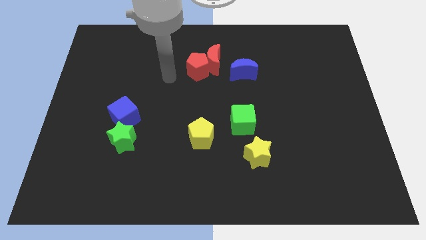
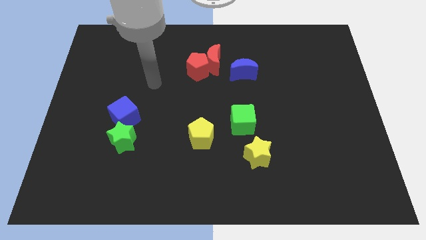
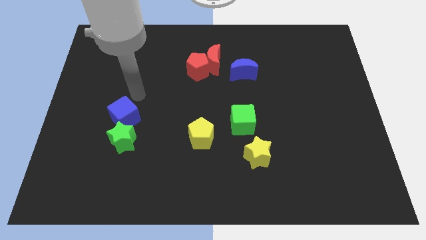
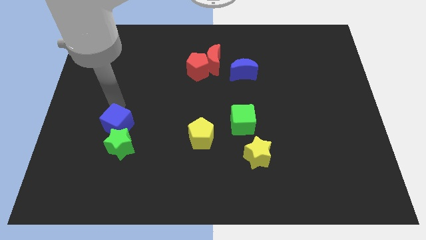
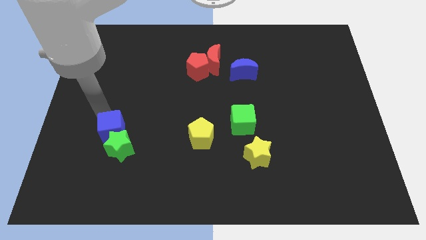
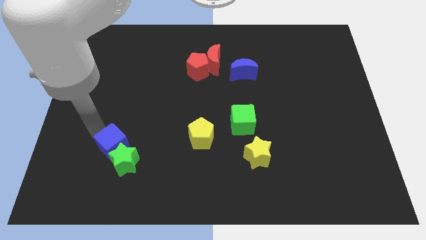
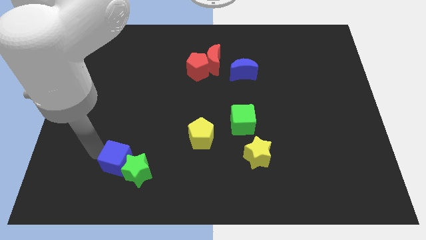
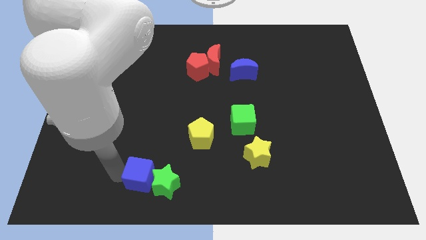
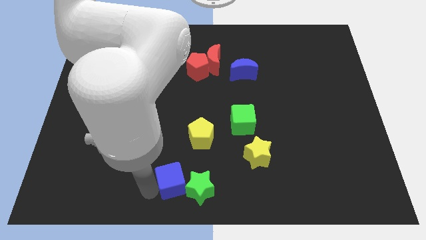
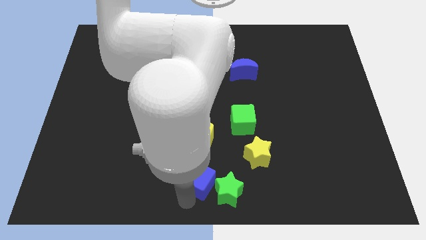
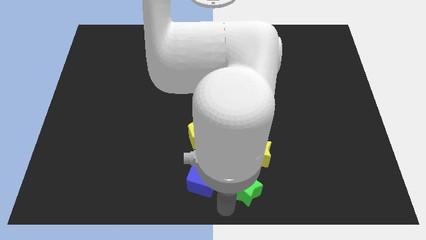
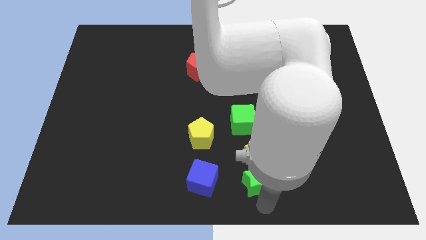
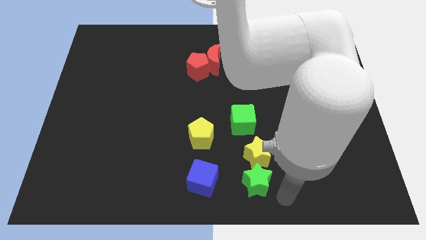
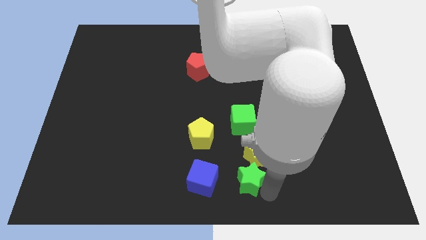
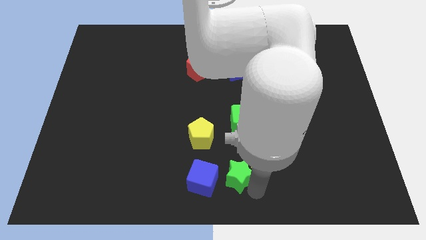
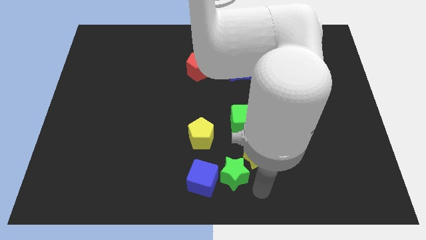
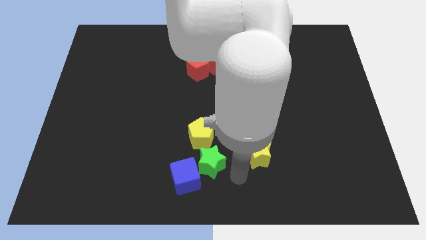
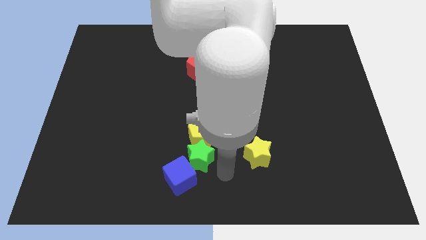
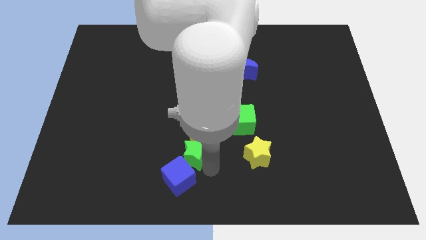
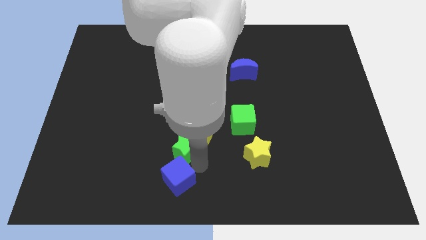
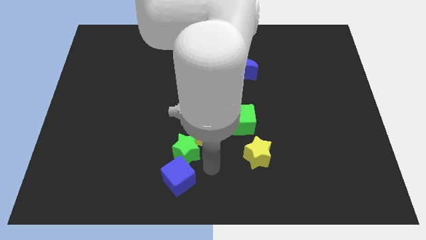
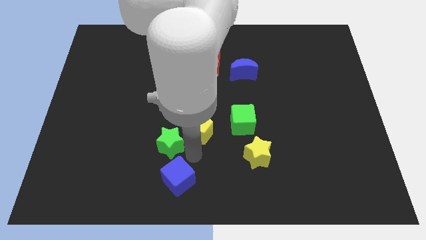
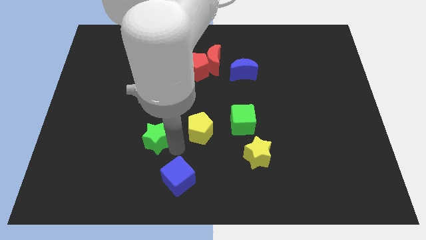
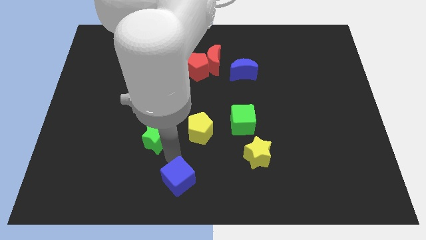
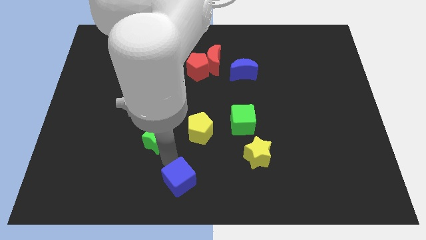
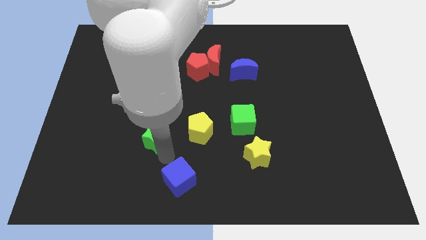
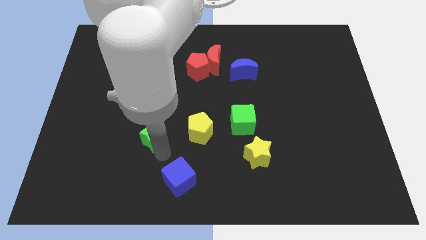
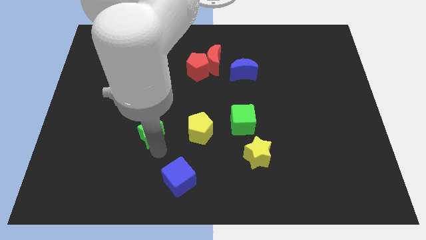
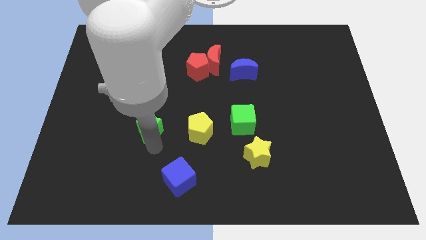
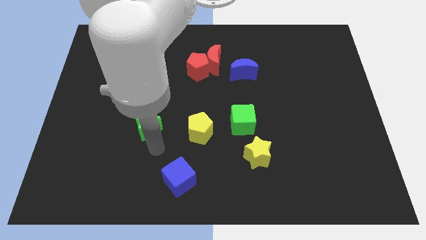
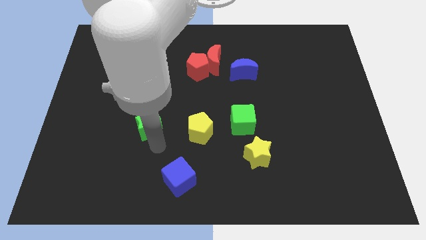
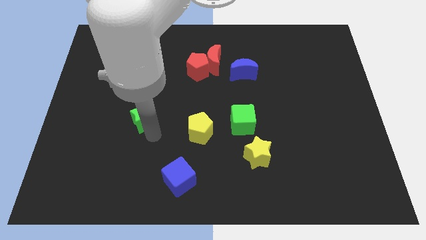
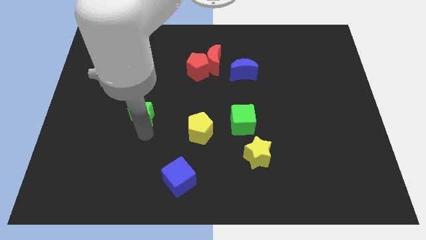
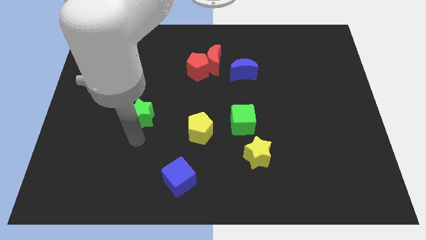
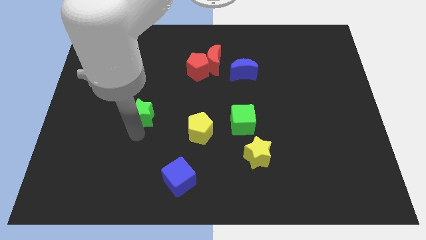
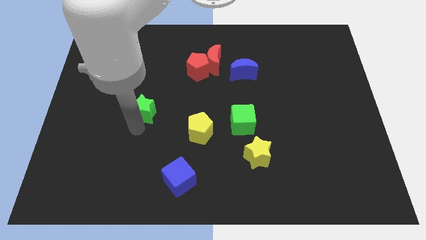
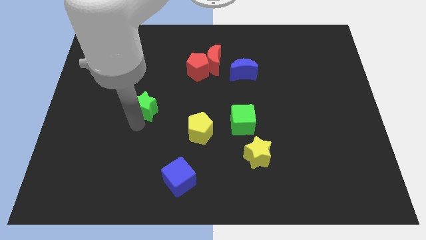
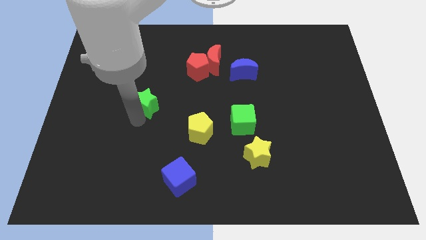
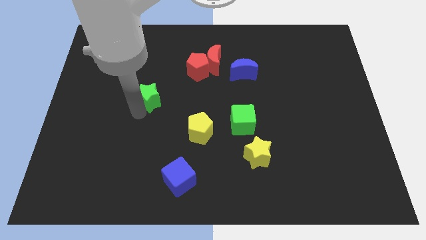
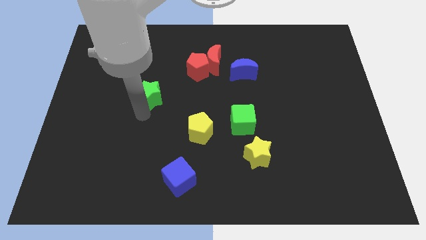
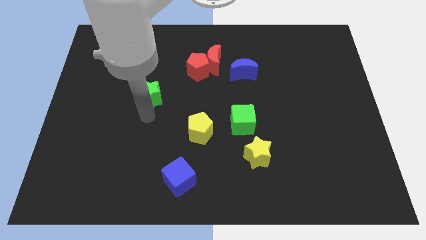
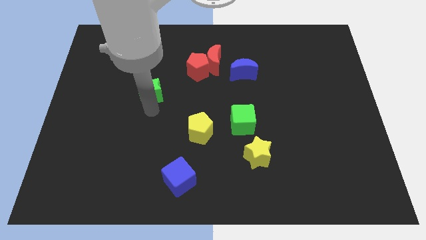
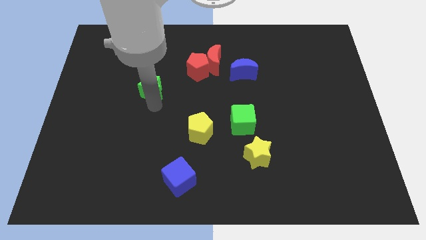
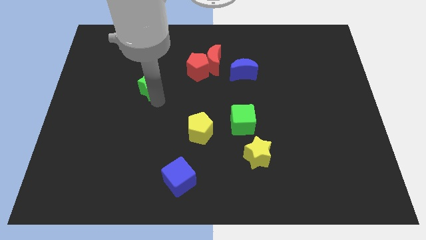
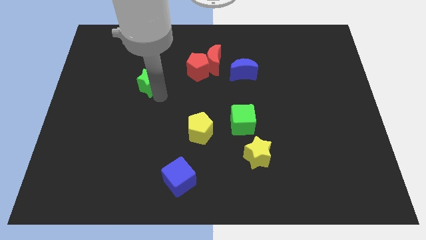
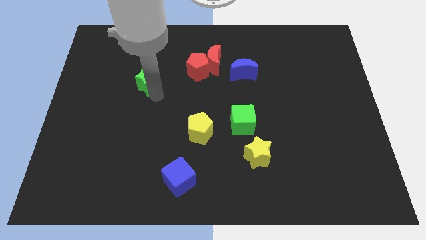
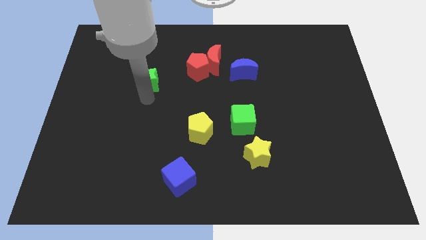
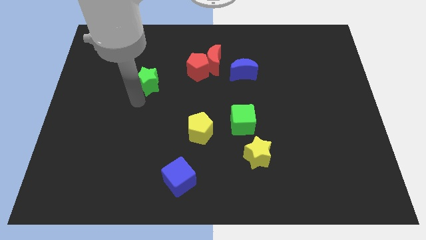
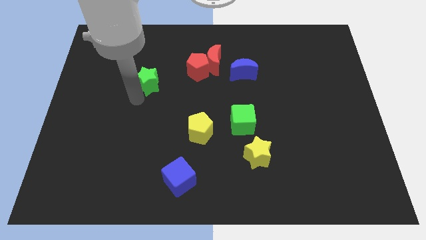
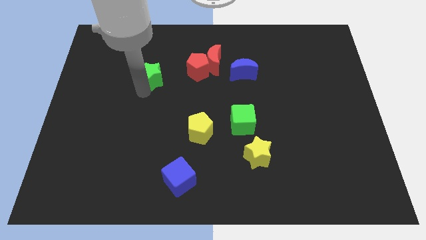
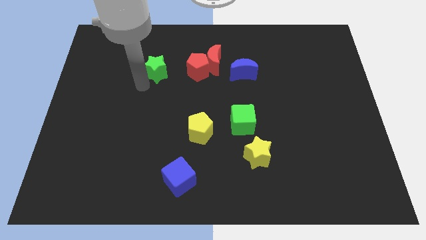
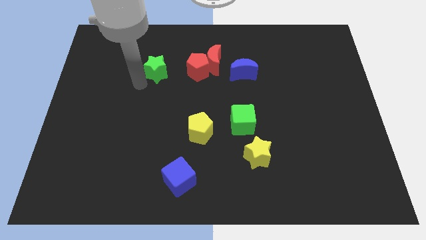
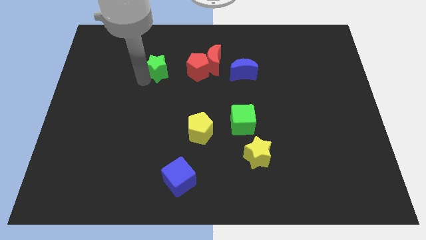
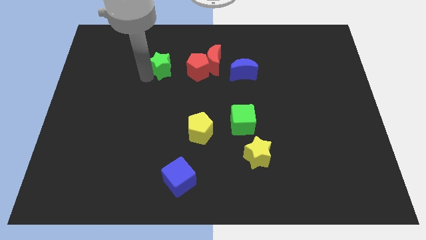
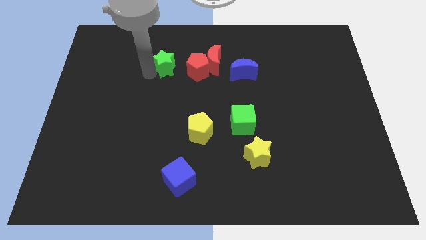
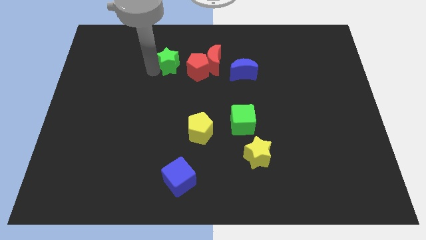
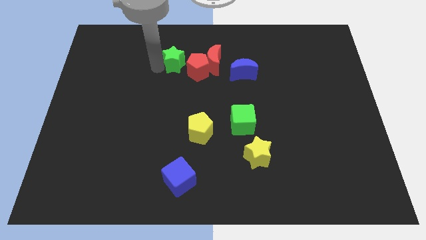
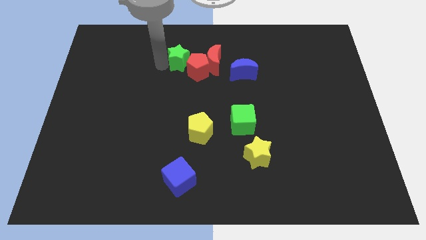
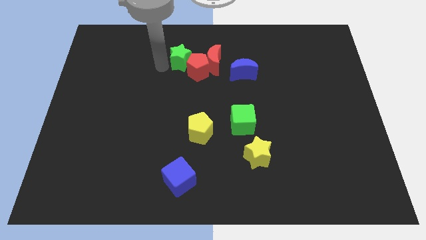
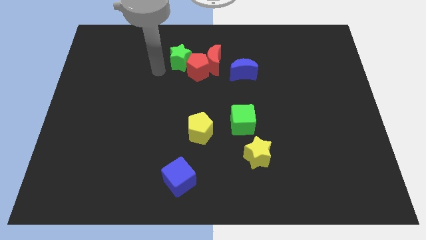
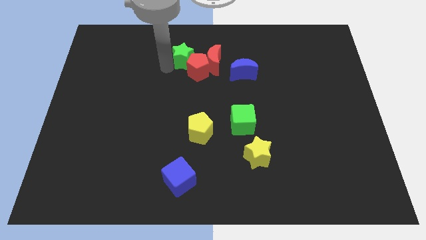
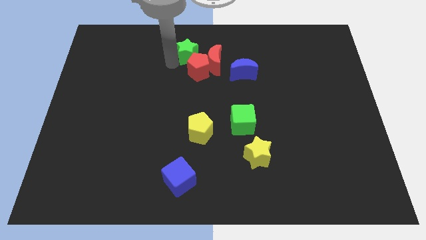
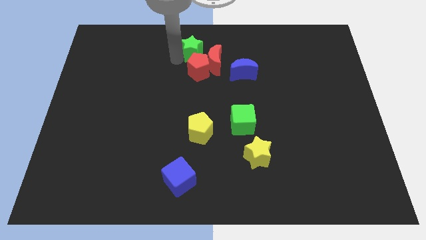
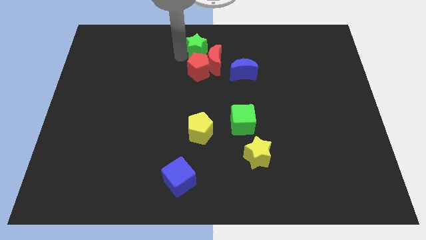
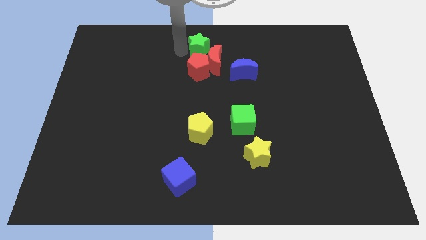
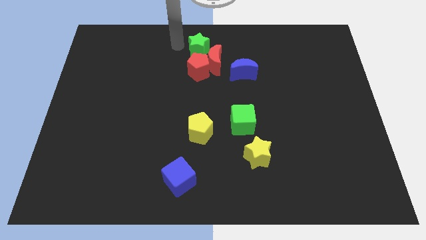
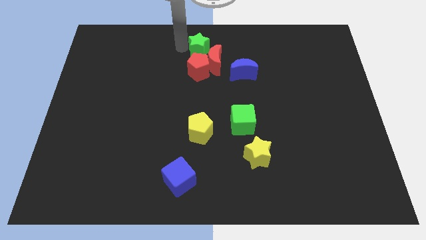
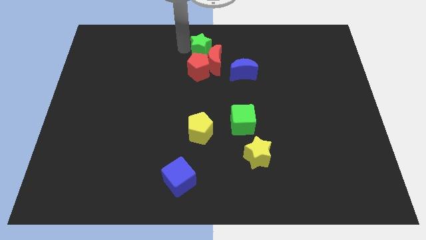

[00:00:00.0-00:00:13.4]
put the green star diagonally up and to the right of the red pentagon
